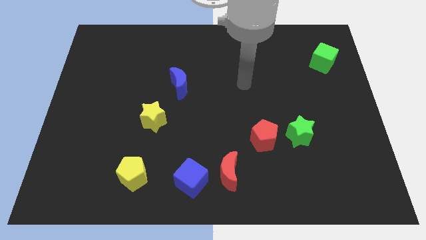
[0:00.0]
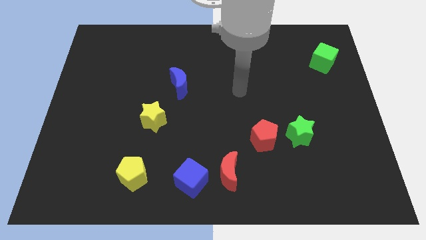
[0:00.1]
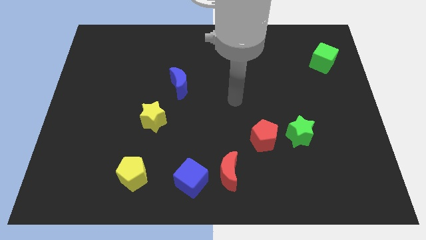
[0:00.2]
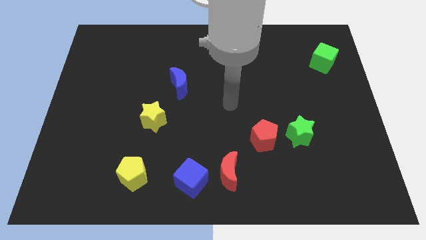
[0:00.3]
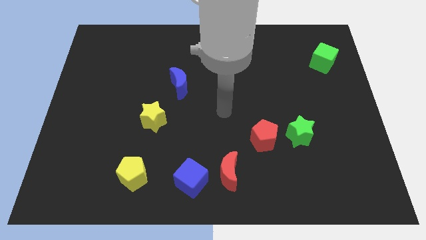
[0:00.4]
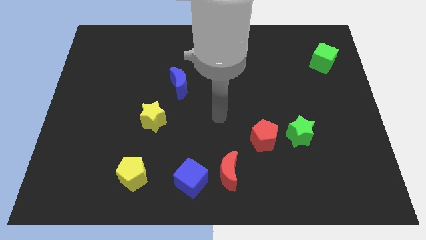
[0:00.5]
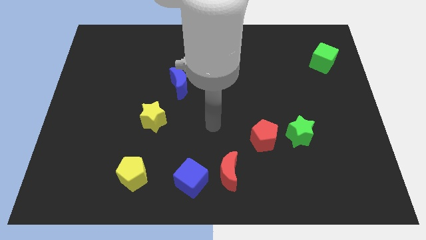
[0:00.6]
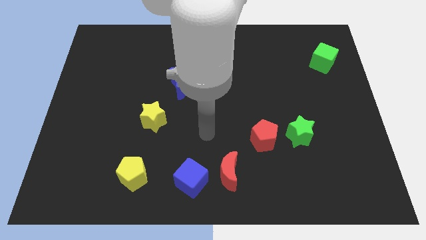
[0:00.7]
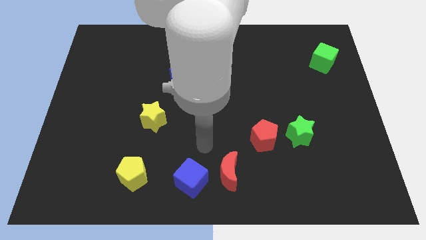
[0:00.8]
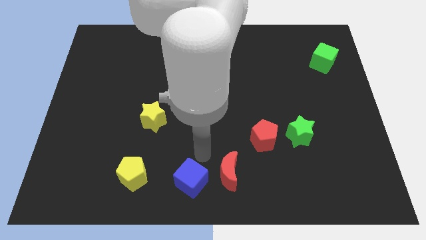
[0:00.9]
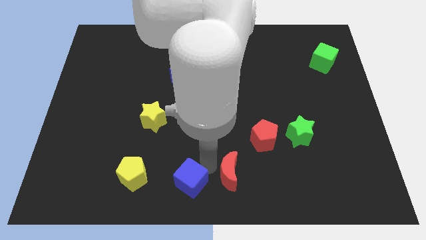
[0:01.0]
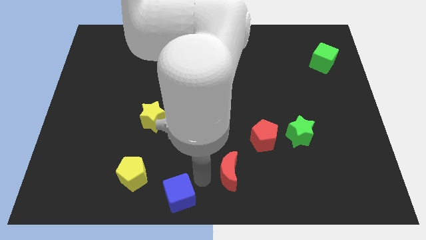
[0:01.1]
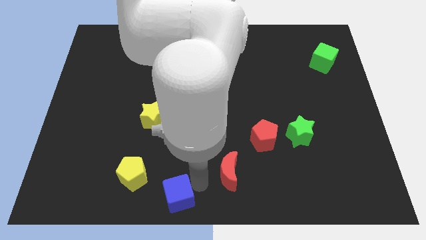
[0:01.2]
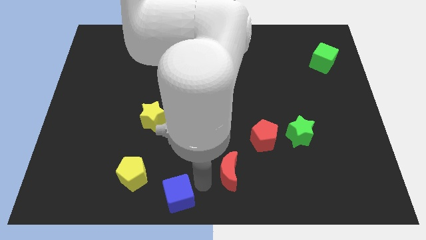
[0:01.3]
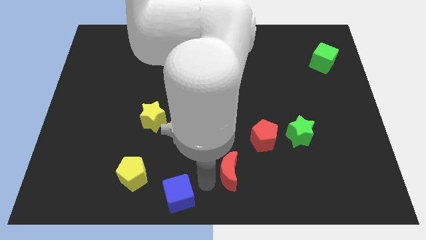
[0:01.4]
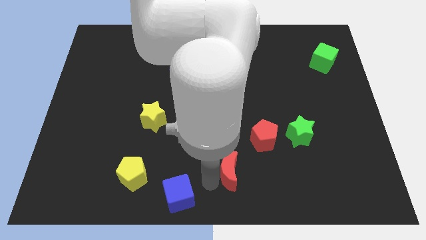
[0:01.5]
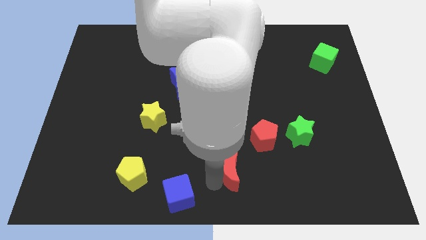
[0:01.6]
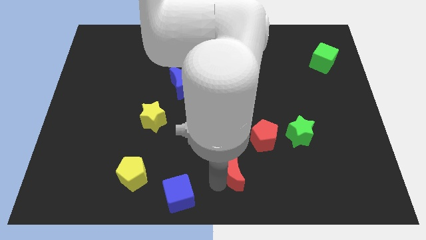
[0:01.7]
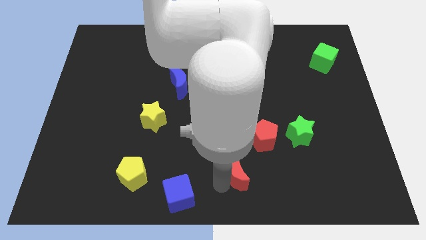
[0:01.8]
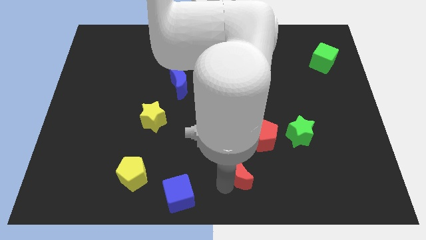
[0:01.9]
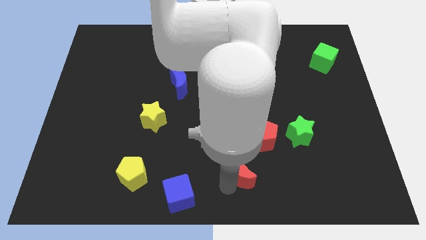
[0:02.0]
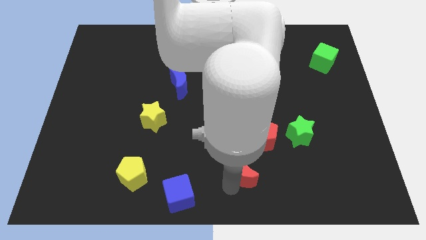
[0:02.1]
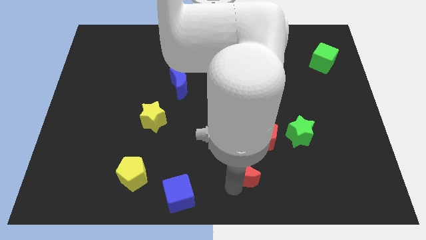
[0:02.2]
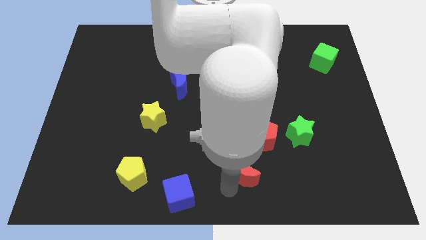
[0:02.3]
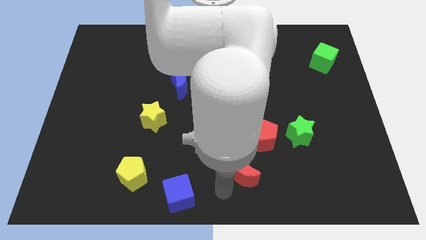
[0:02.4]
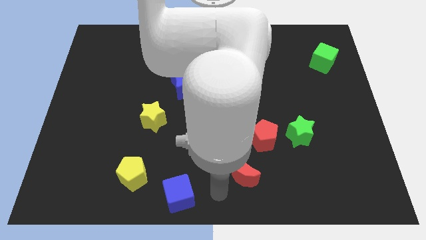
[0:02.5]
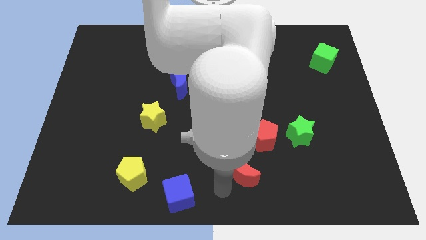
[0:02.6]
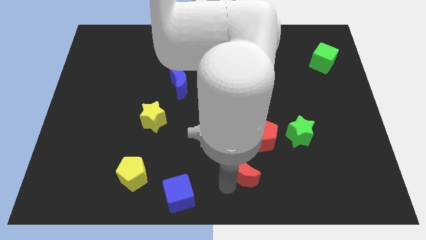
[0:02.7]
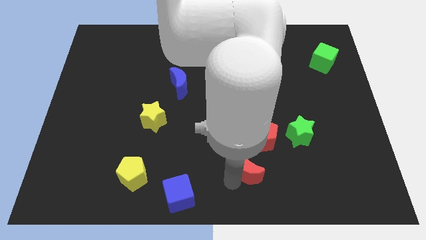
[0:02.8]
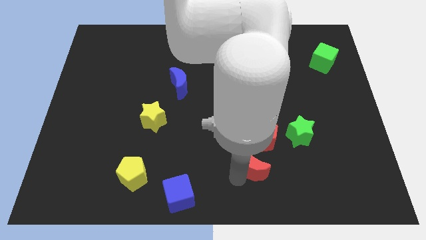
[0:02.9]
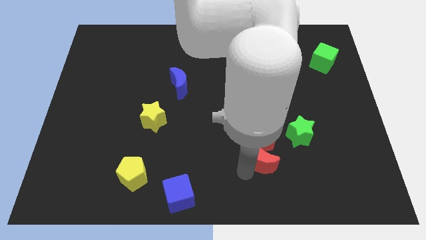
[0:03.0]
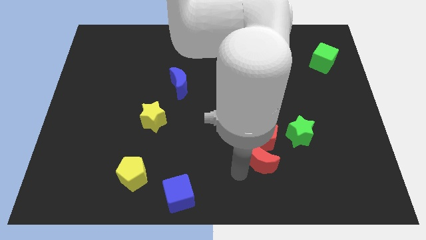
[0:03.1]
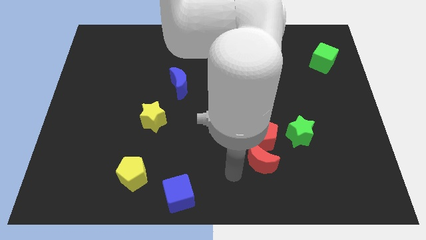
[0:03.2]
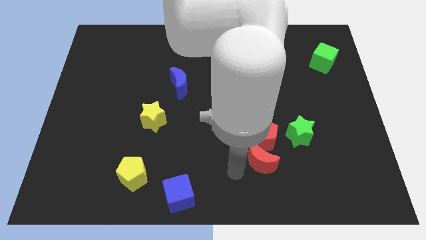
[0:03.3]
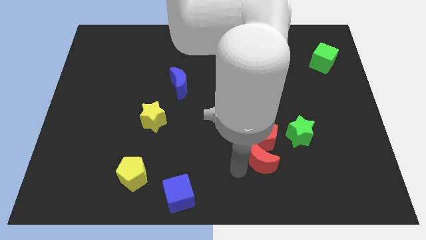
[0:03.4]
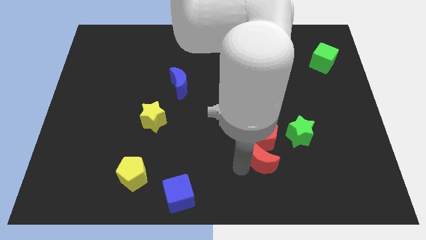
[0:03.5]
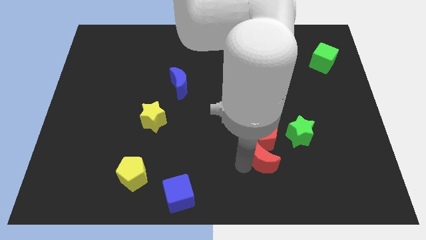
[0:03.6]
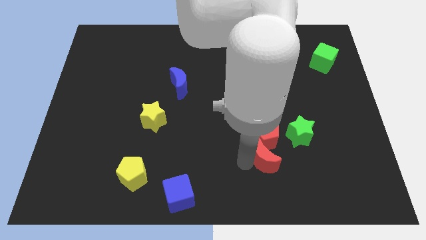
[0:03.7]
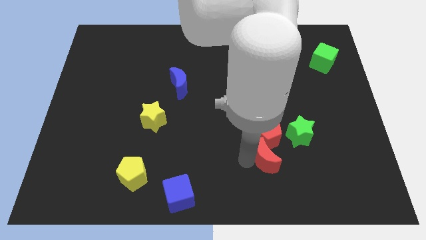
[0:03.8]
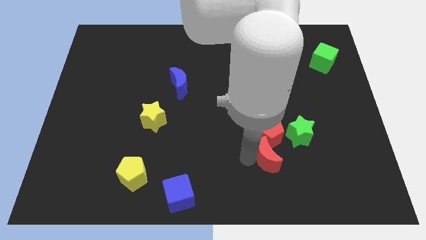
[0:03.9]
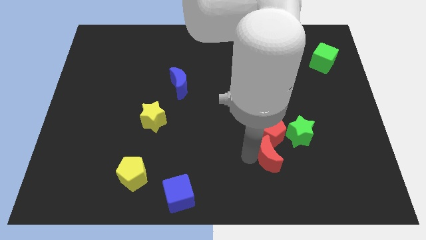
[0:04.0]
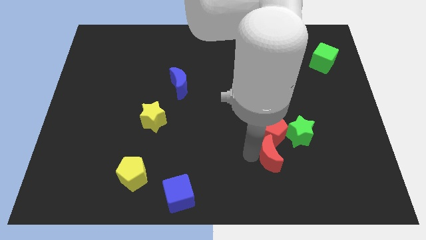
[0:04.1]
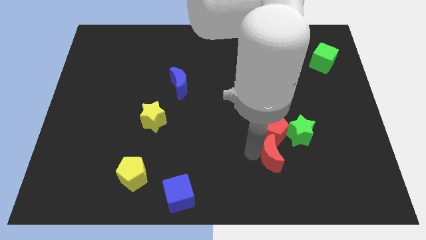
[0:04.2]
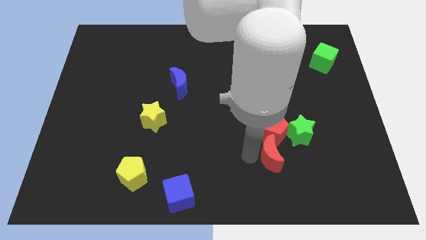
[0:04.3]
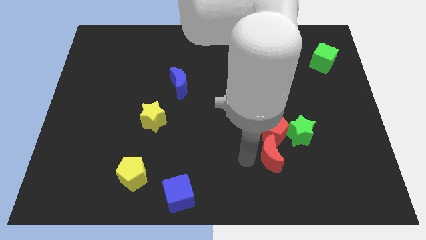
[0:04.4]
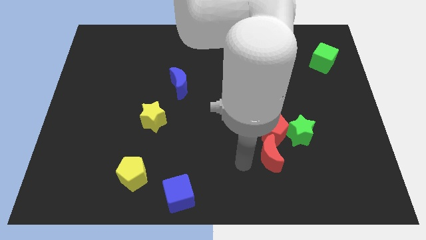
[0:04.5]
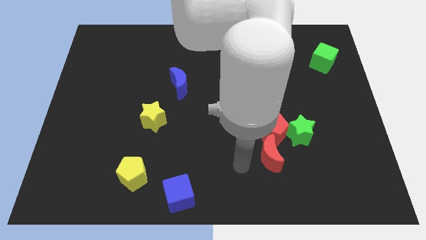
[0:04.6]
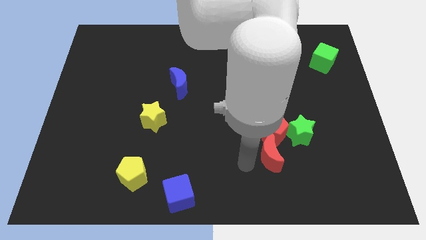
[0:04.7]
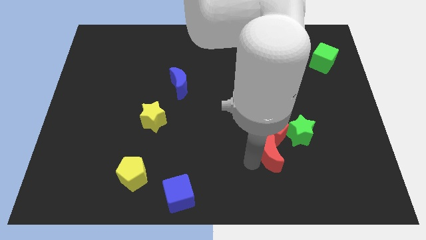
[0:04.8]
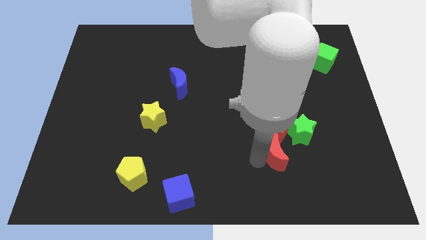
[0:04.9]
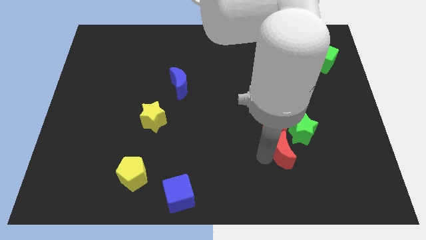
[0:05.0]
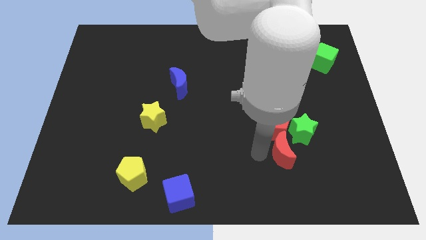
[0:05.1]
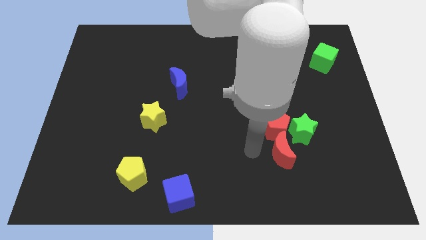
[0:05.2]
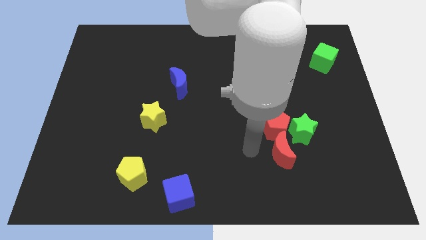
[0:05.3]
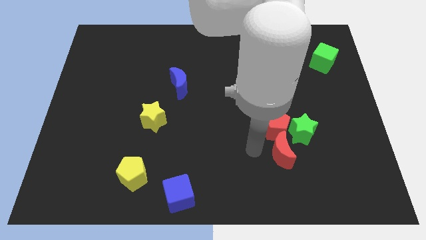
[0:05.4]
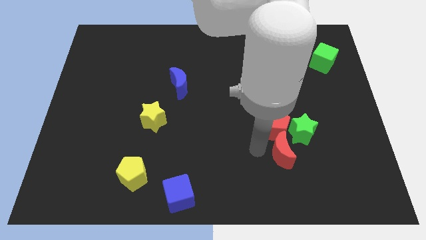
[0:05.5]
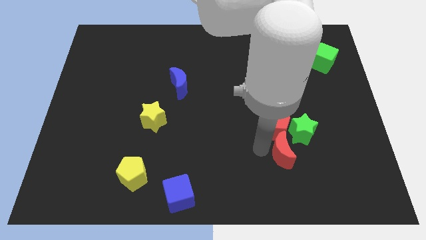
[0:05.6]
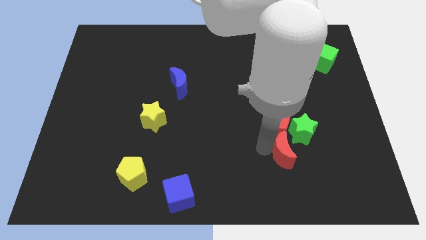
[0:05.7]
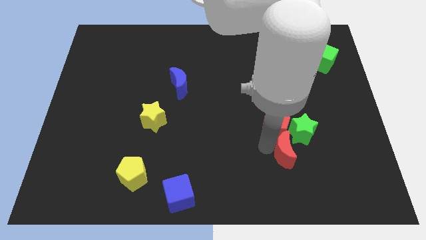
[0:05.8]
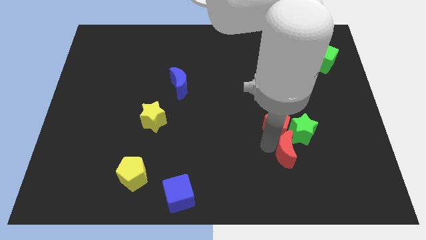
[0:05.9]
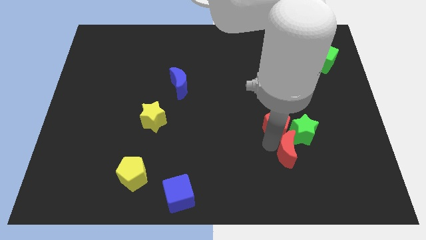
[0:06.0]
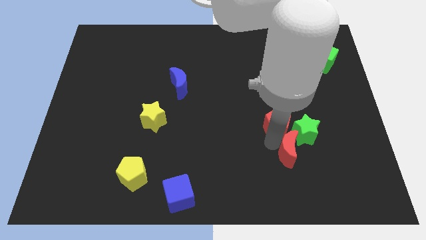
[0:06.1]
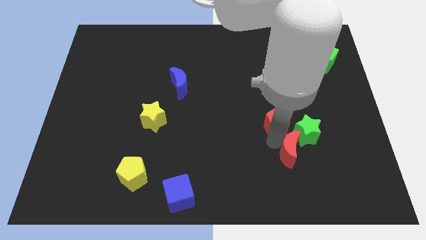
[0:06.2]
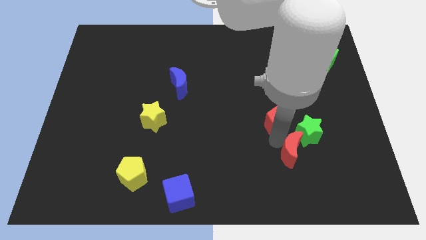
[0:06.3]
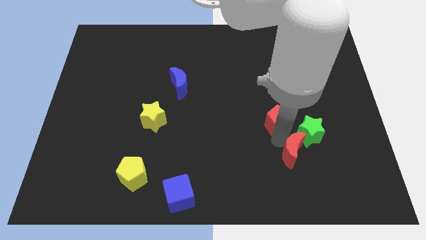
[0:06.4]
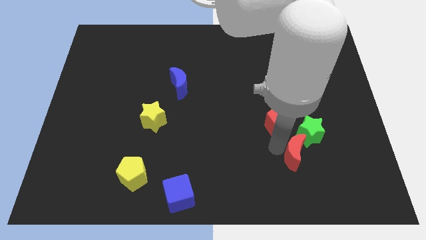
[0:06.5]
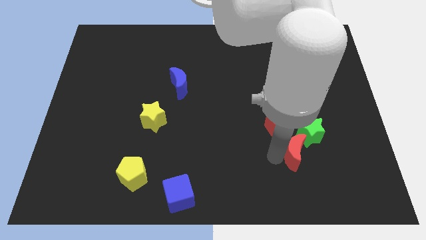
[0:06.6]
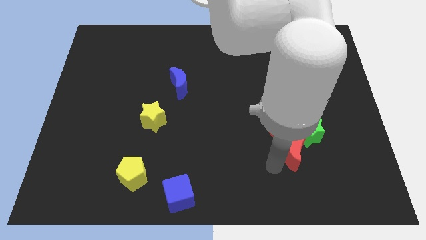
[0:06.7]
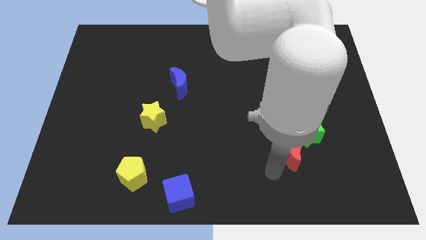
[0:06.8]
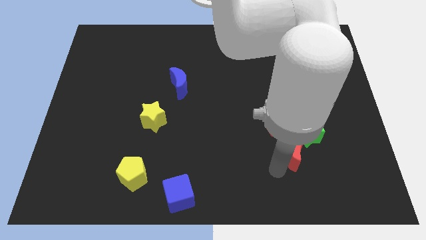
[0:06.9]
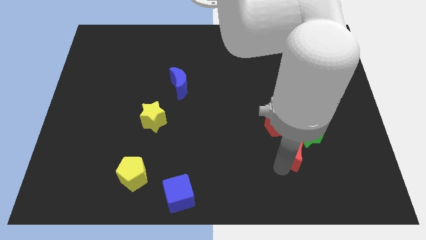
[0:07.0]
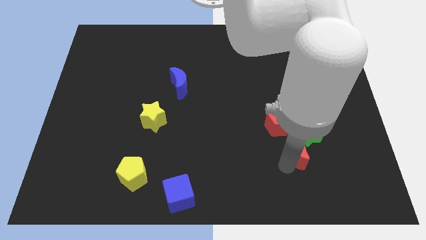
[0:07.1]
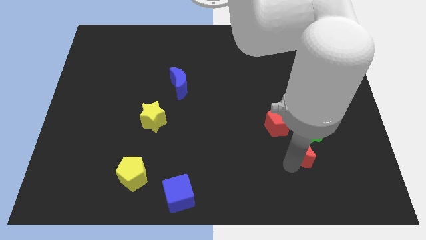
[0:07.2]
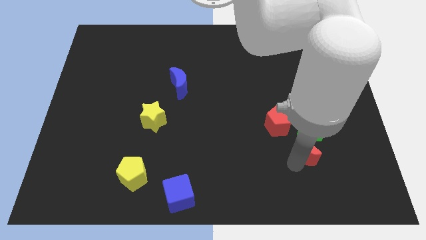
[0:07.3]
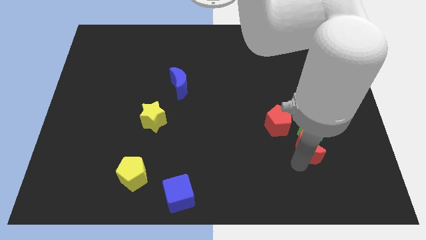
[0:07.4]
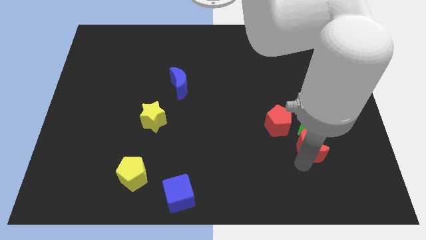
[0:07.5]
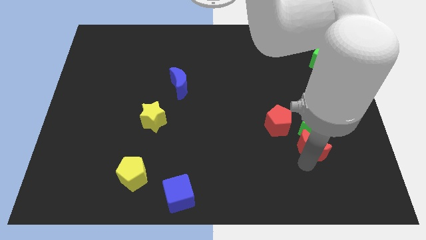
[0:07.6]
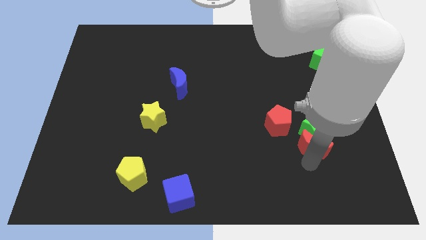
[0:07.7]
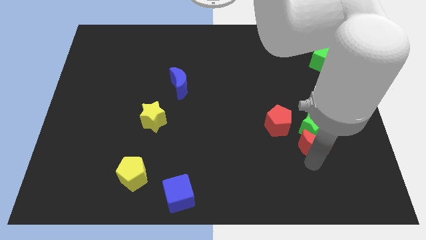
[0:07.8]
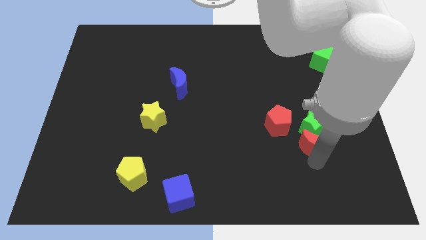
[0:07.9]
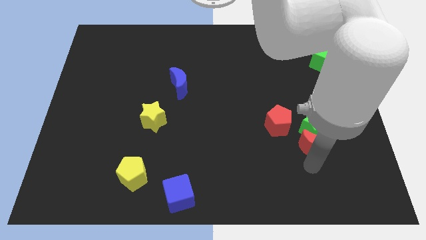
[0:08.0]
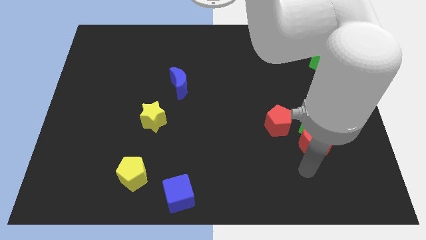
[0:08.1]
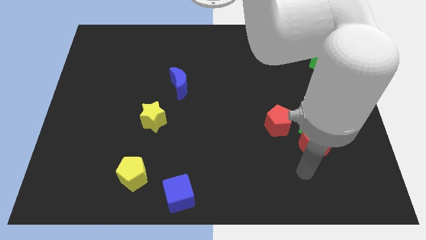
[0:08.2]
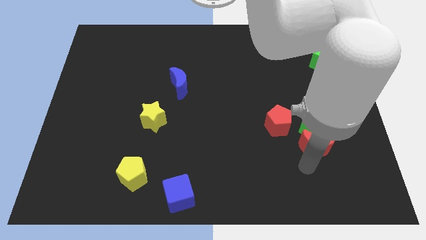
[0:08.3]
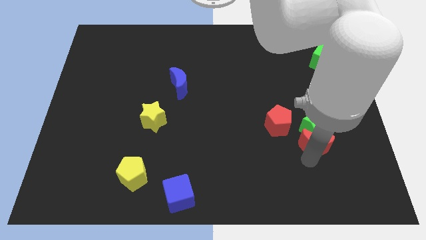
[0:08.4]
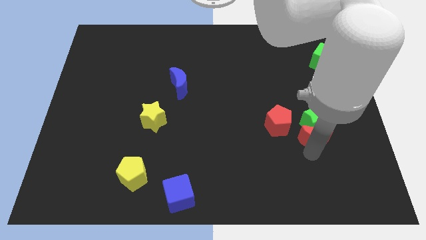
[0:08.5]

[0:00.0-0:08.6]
put the red moon to the right side of the red pentagon
